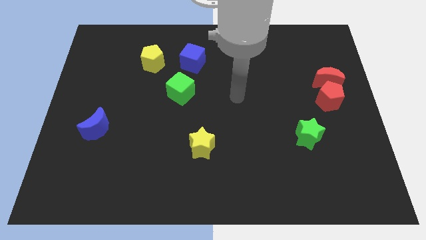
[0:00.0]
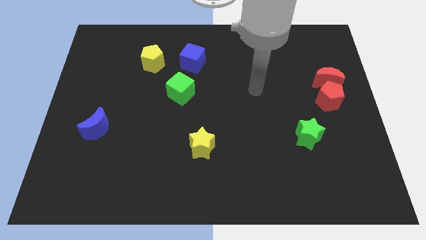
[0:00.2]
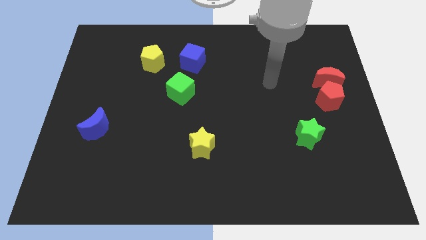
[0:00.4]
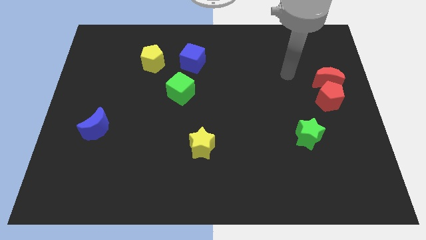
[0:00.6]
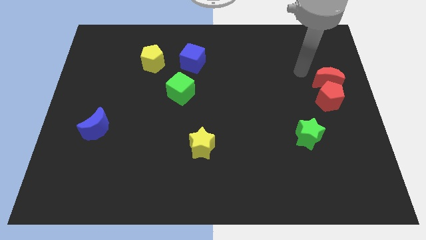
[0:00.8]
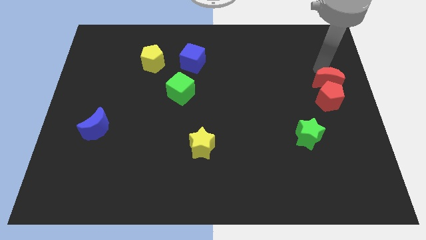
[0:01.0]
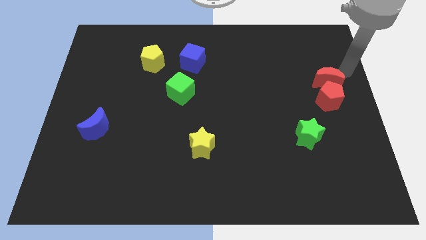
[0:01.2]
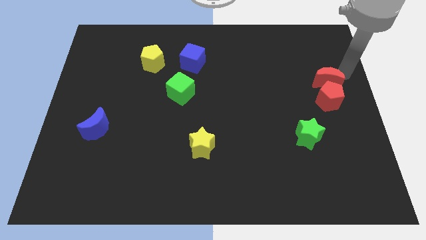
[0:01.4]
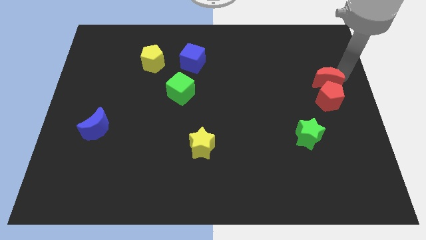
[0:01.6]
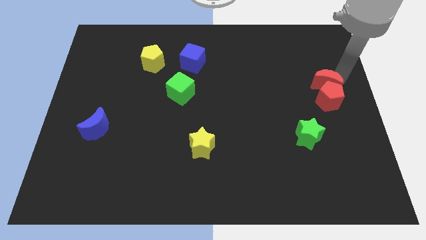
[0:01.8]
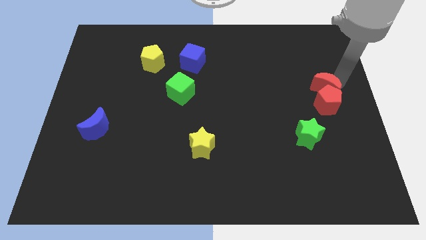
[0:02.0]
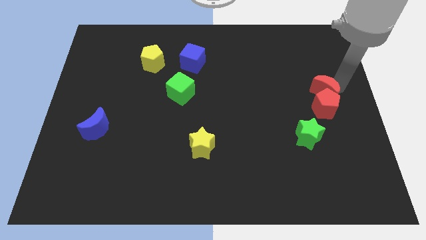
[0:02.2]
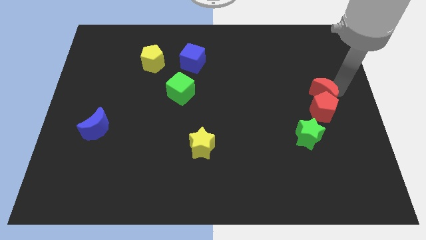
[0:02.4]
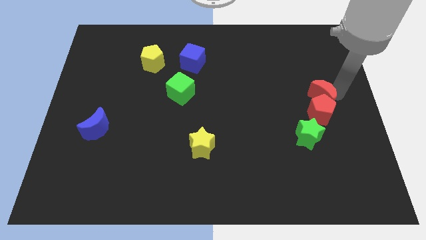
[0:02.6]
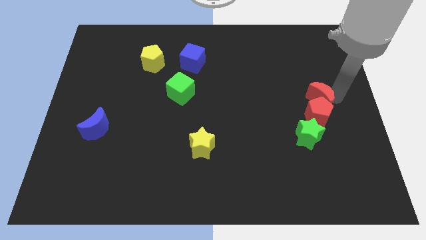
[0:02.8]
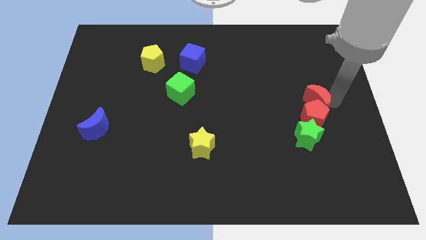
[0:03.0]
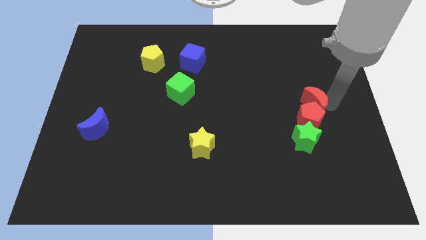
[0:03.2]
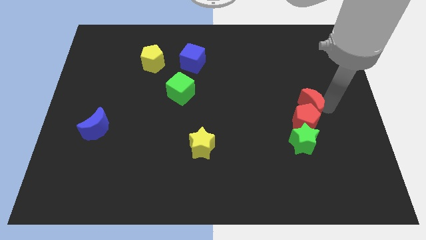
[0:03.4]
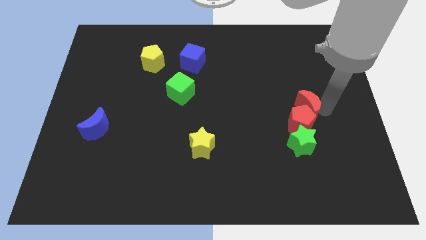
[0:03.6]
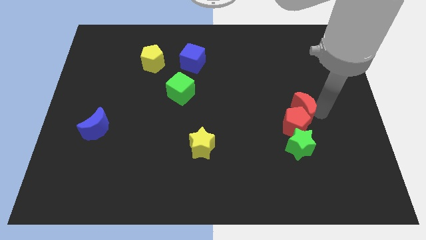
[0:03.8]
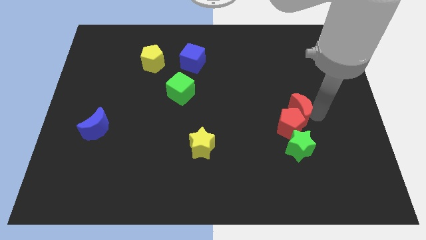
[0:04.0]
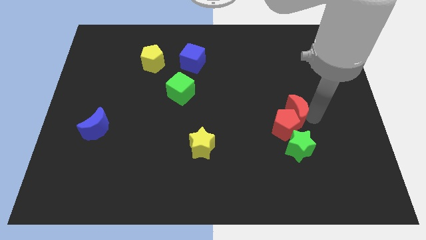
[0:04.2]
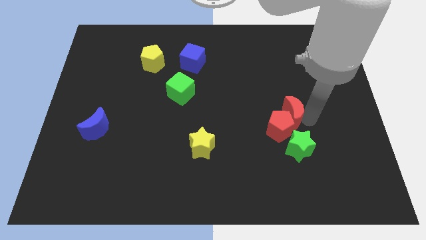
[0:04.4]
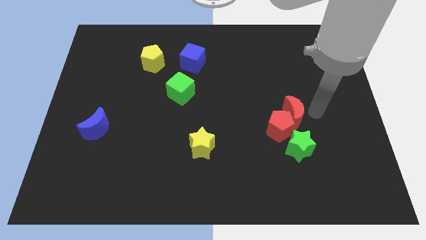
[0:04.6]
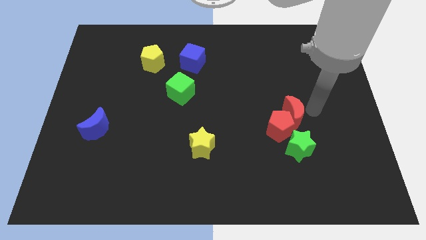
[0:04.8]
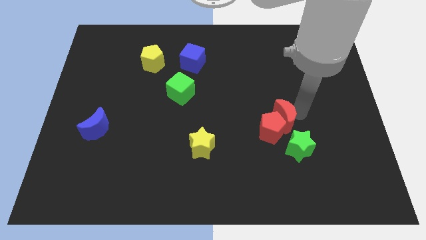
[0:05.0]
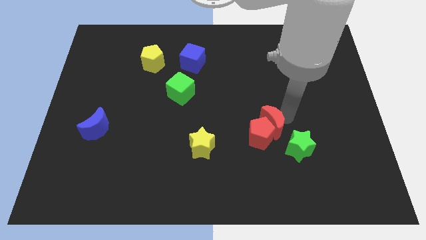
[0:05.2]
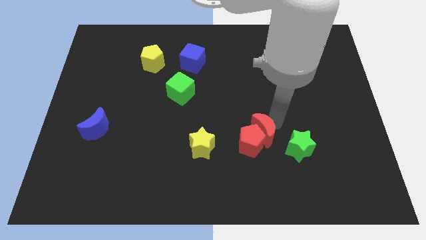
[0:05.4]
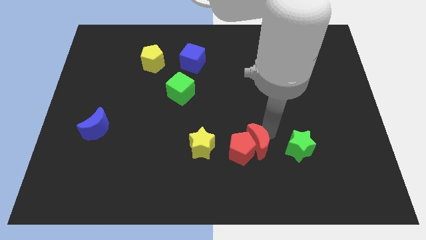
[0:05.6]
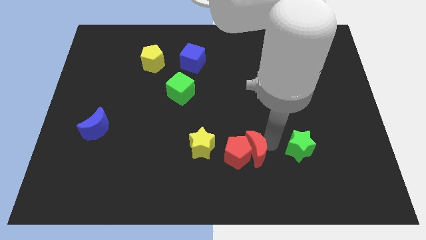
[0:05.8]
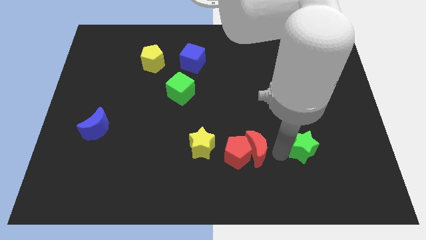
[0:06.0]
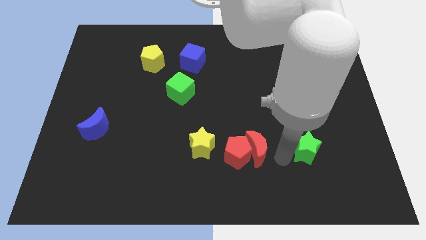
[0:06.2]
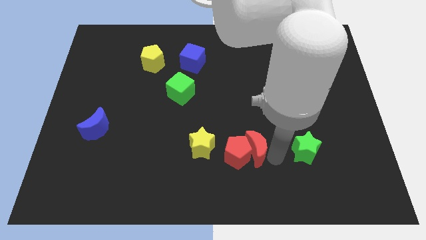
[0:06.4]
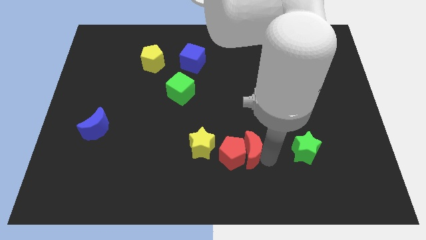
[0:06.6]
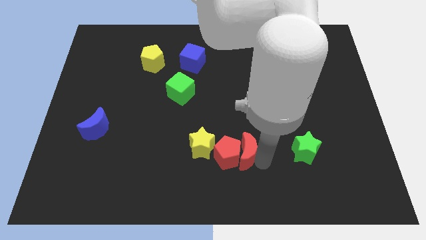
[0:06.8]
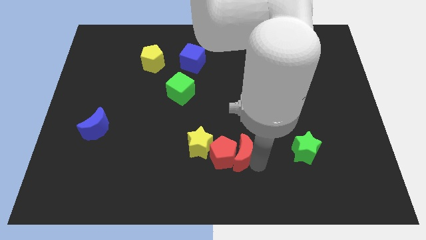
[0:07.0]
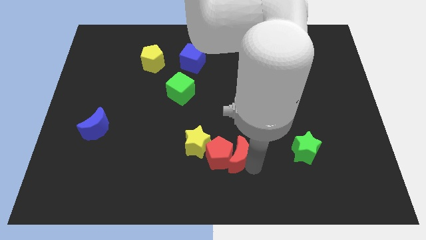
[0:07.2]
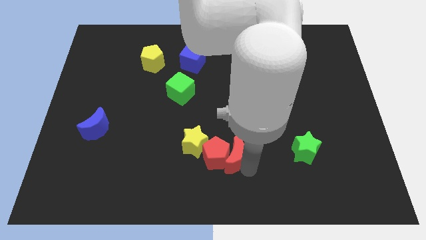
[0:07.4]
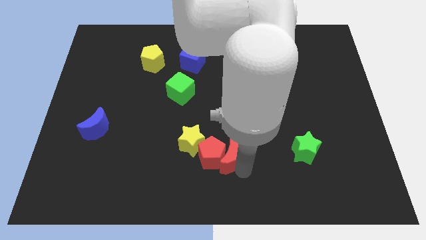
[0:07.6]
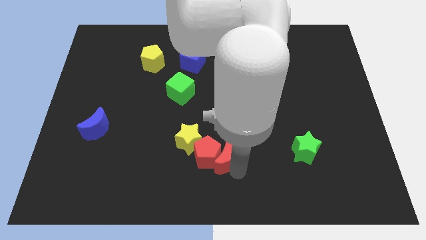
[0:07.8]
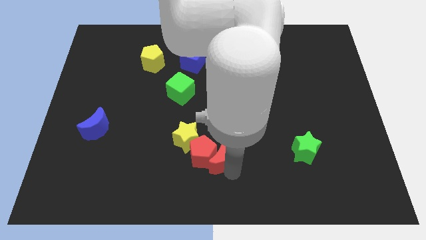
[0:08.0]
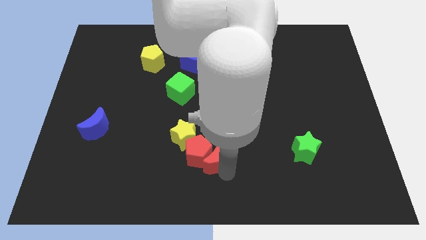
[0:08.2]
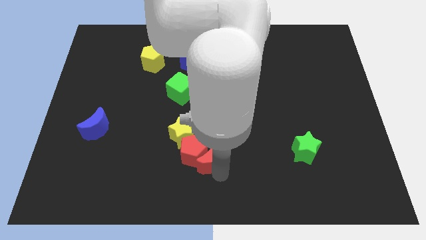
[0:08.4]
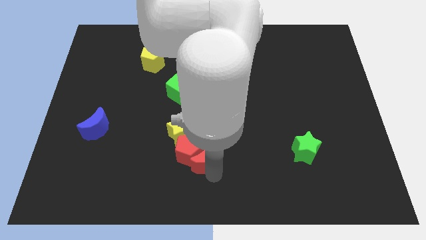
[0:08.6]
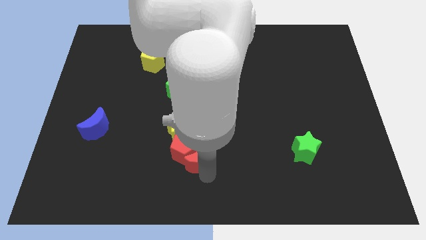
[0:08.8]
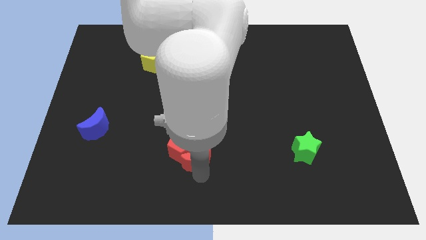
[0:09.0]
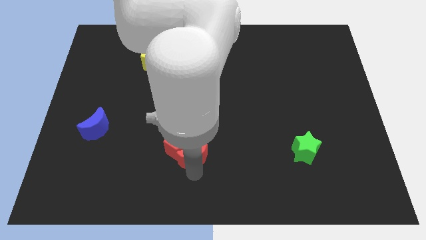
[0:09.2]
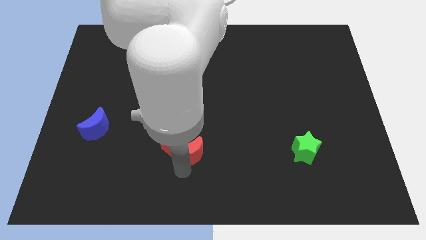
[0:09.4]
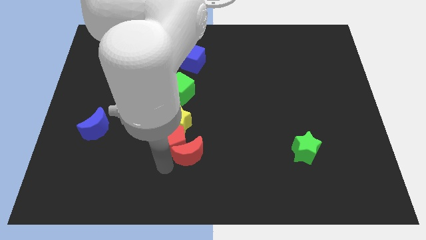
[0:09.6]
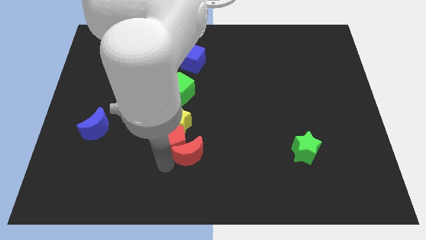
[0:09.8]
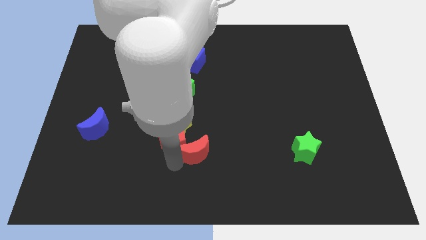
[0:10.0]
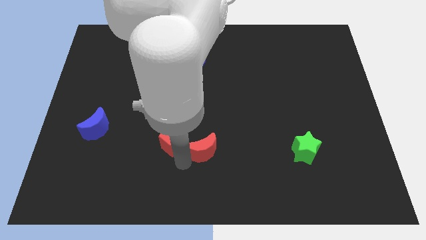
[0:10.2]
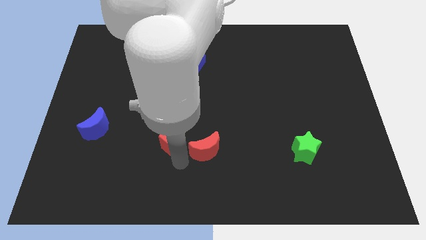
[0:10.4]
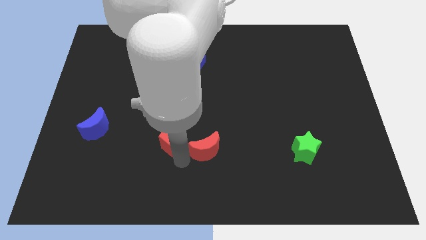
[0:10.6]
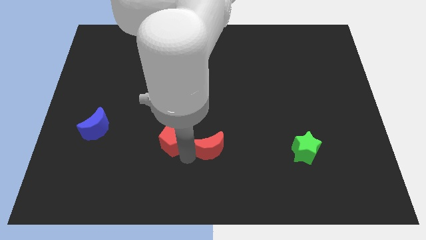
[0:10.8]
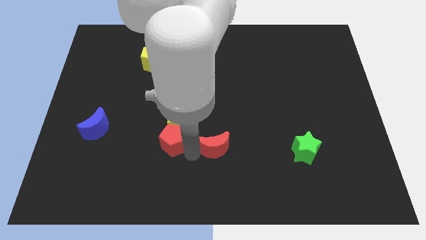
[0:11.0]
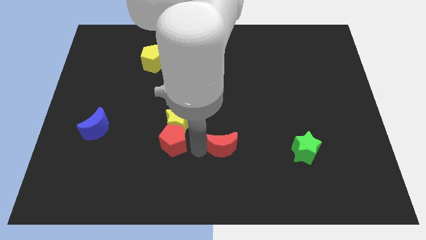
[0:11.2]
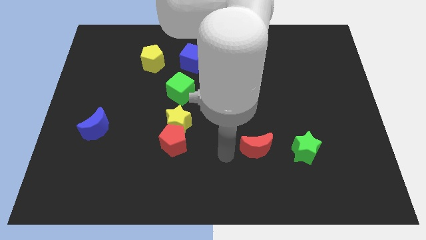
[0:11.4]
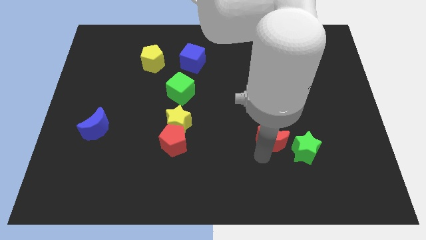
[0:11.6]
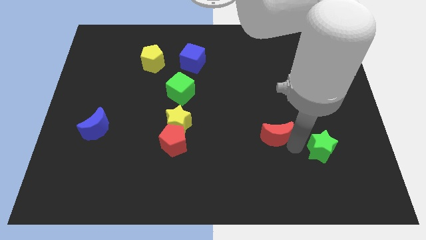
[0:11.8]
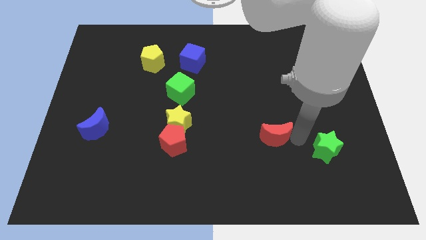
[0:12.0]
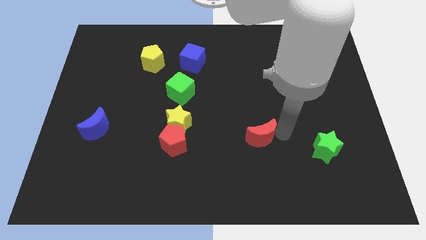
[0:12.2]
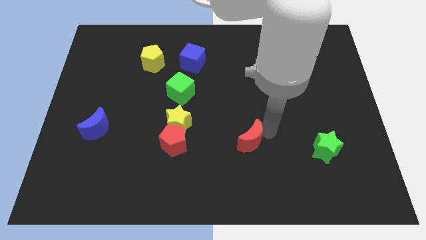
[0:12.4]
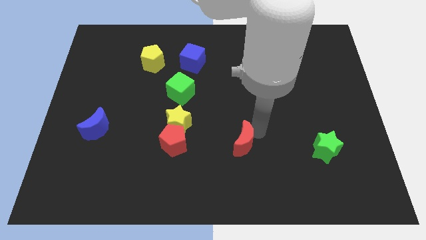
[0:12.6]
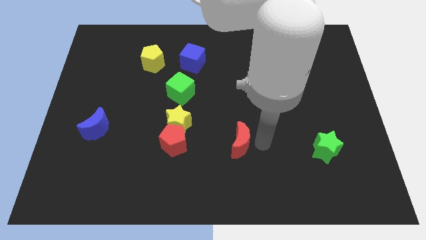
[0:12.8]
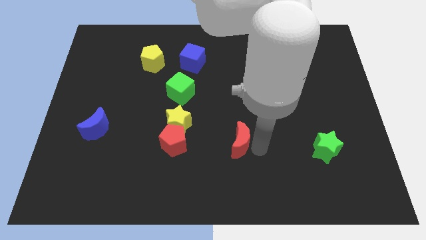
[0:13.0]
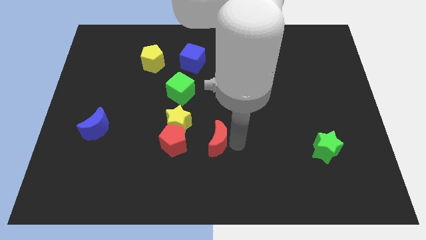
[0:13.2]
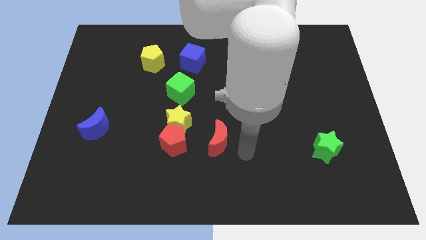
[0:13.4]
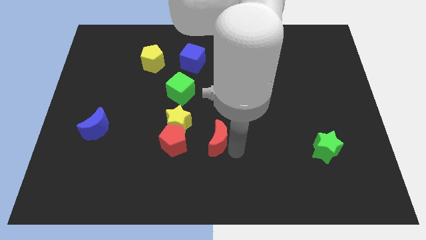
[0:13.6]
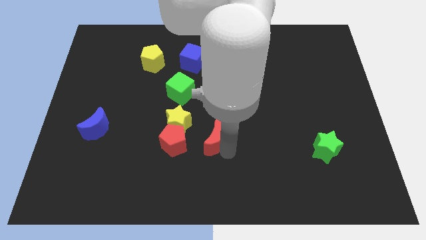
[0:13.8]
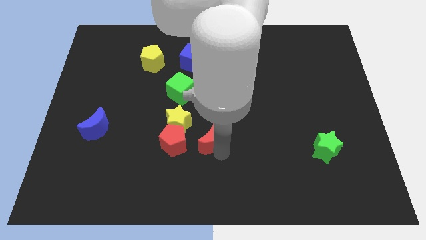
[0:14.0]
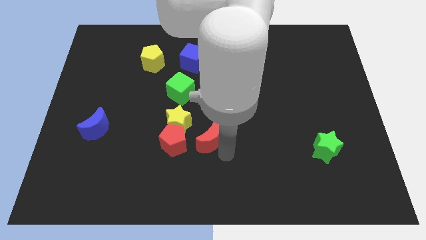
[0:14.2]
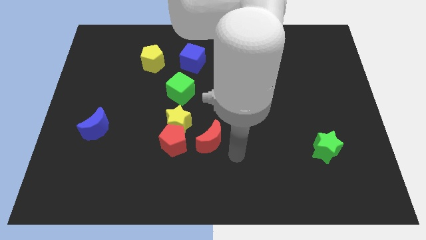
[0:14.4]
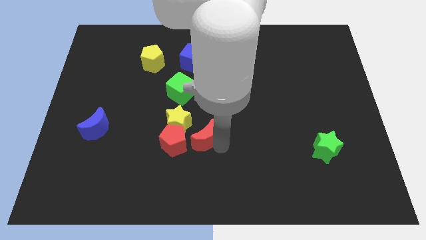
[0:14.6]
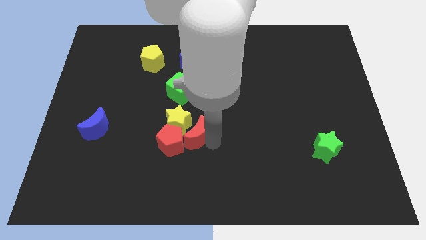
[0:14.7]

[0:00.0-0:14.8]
move the red moon towards the yellow star
